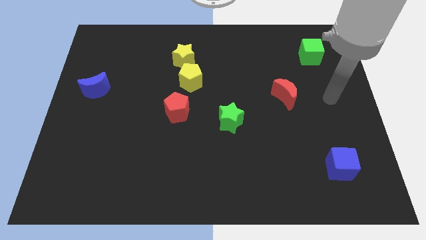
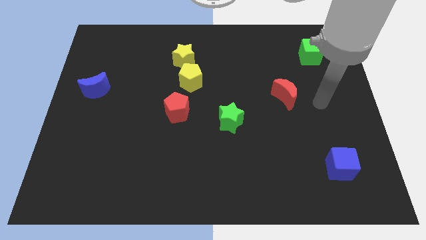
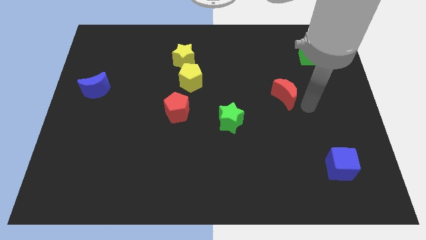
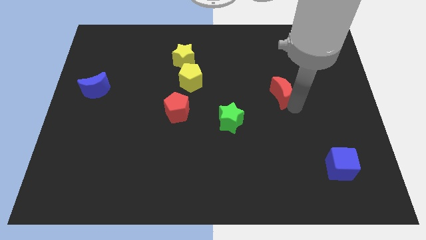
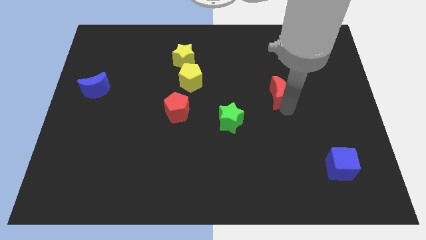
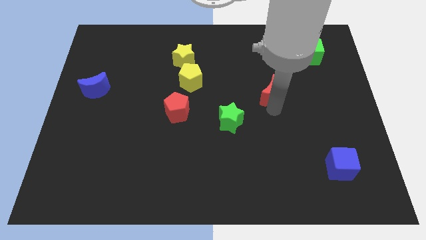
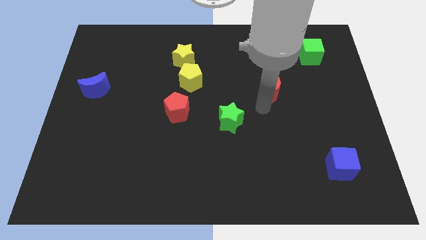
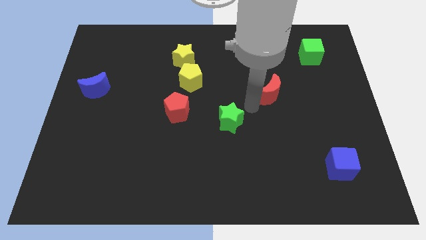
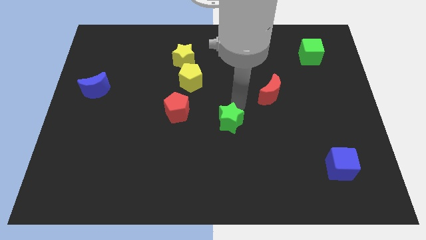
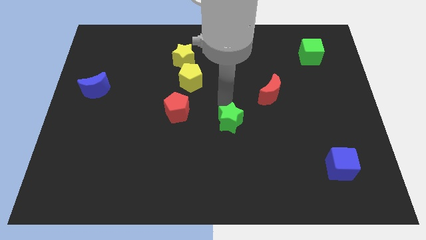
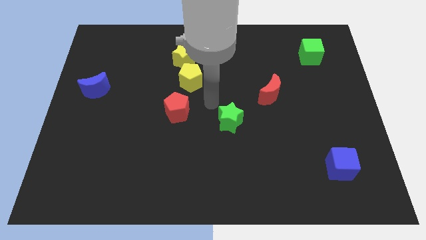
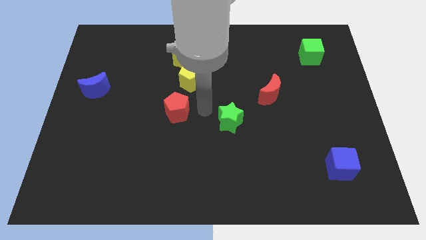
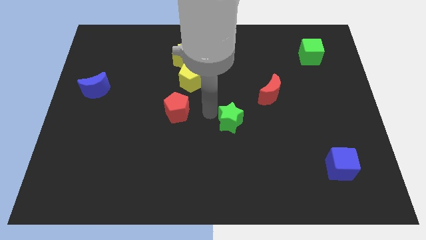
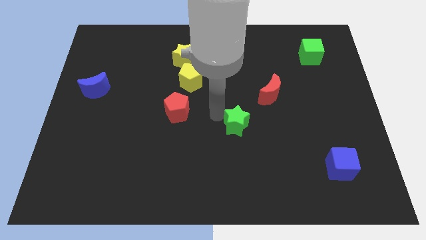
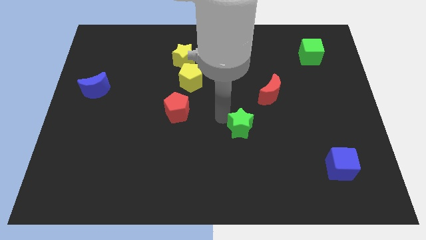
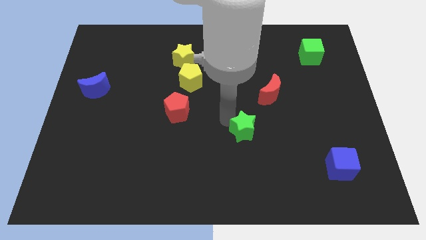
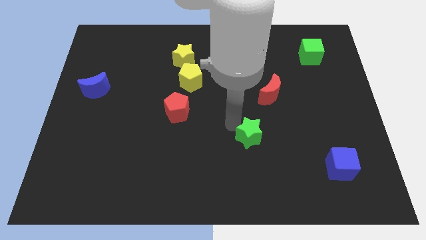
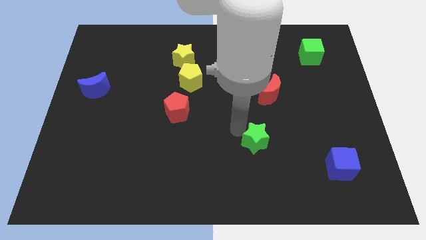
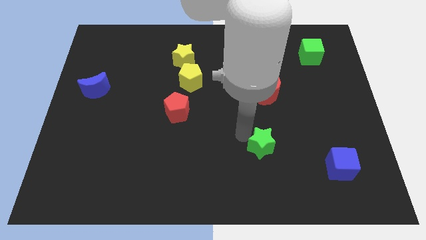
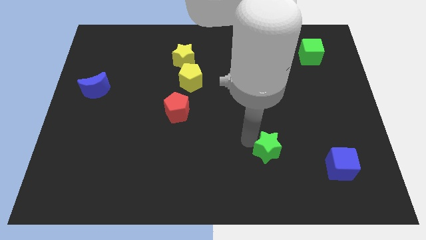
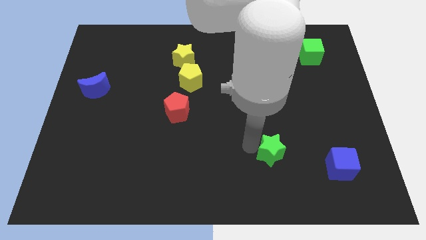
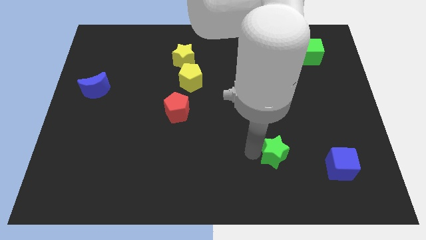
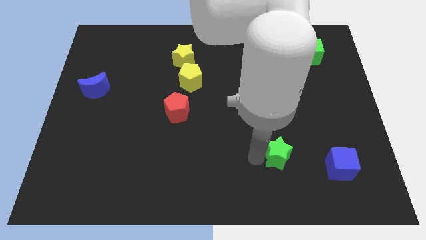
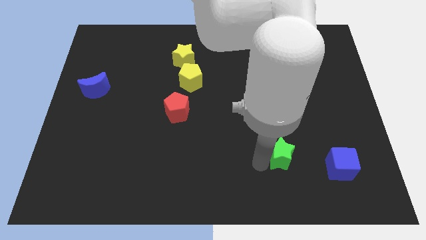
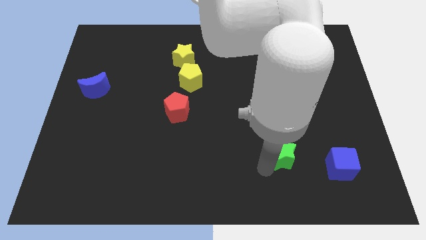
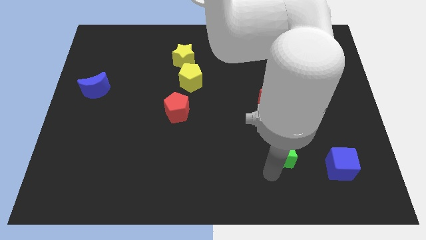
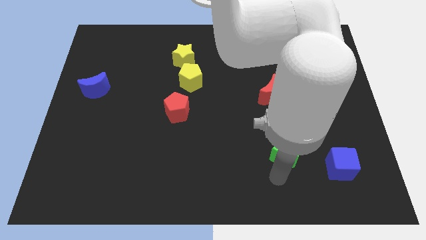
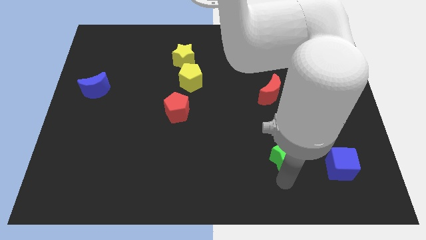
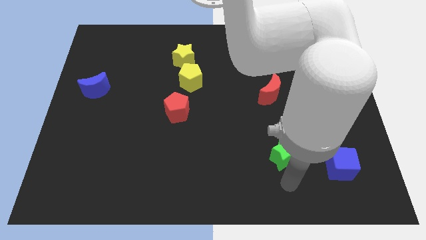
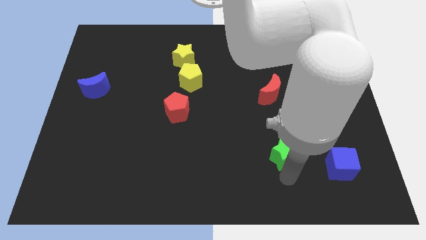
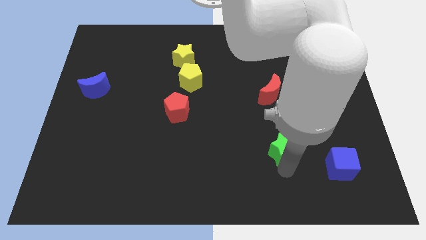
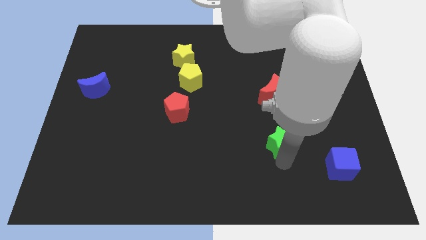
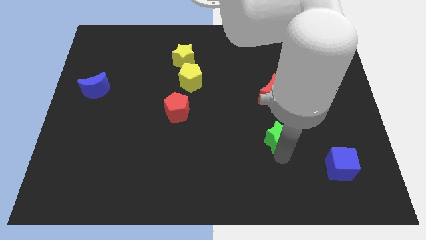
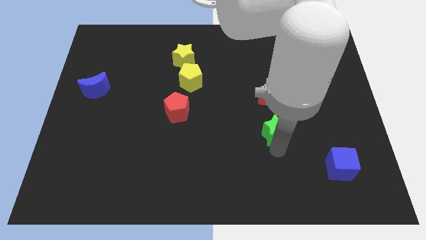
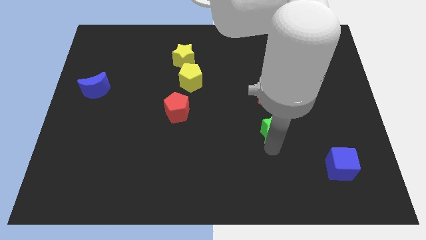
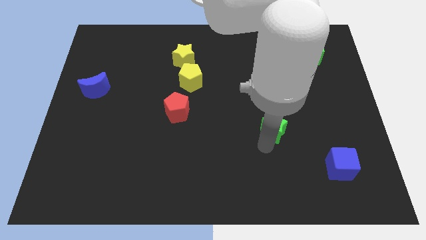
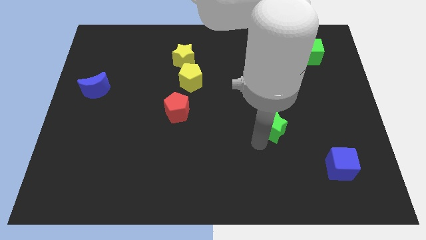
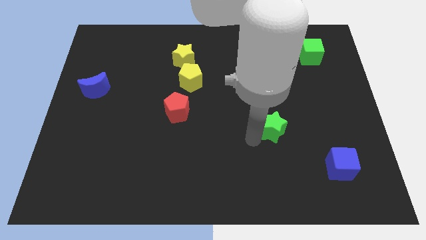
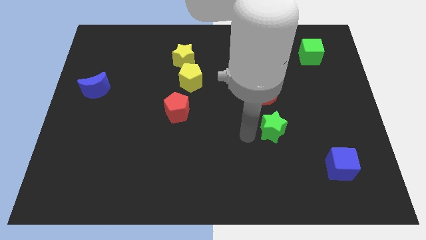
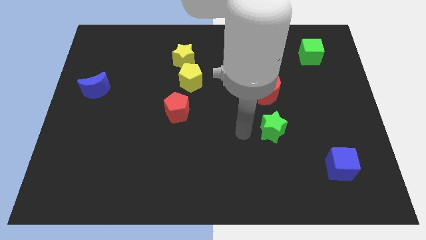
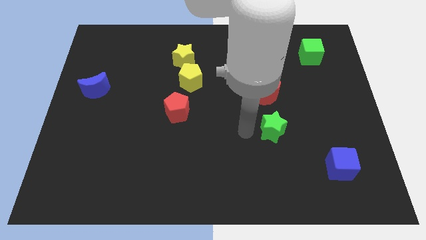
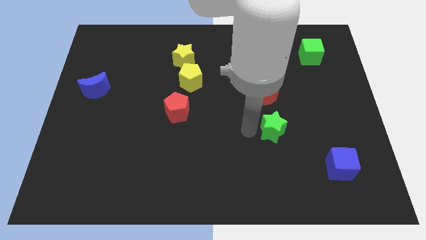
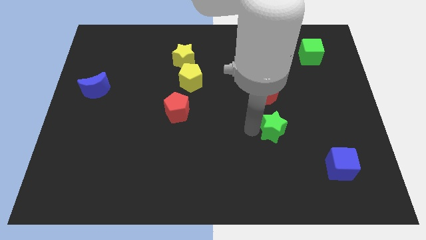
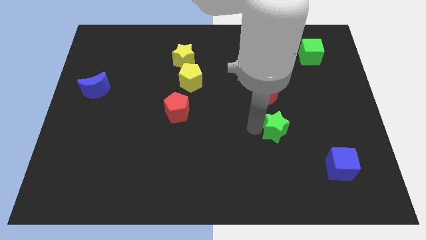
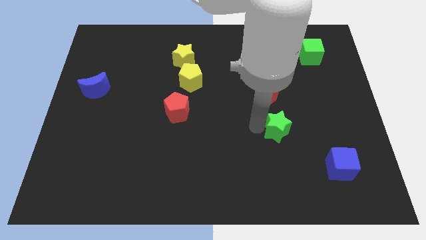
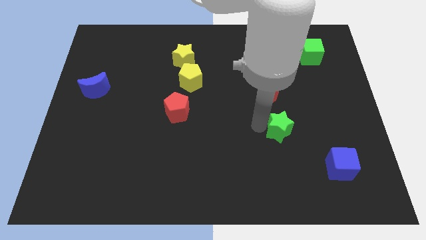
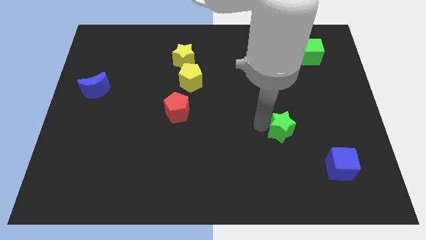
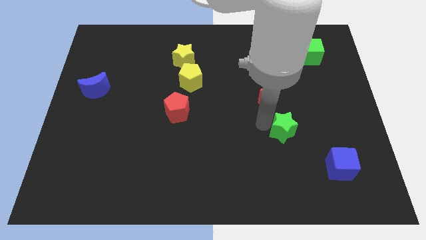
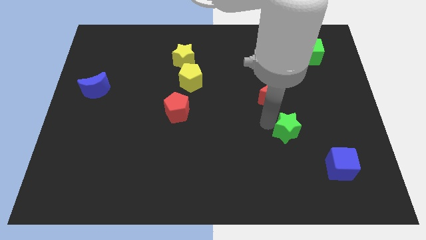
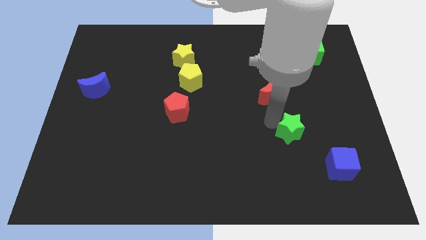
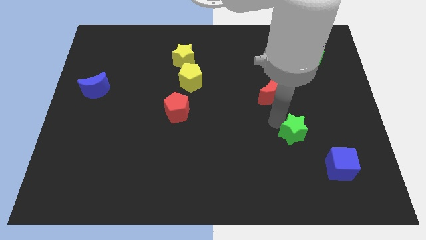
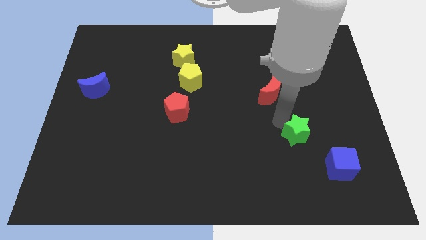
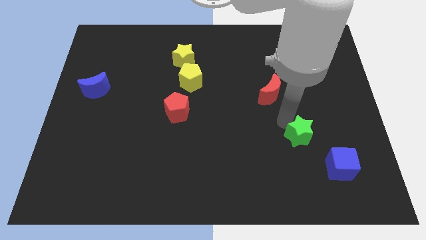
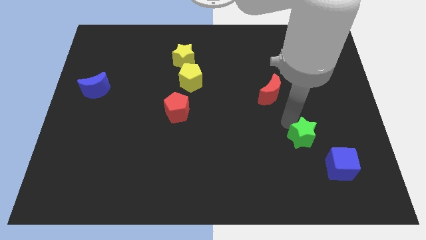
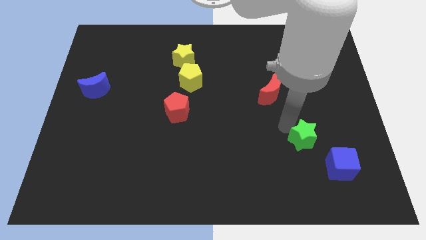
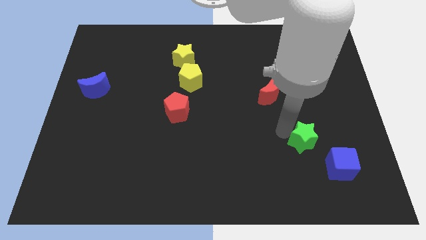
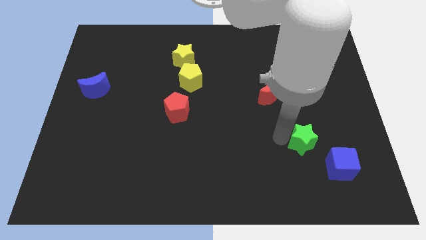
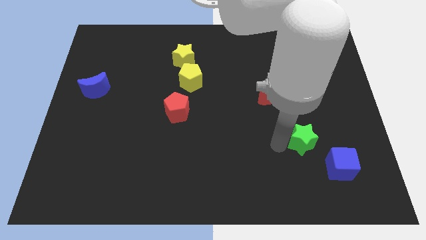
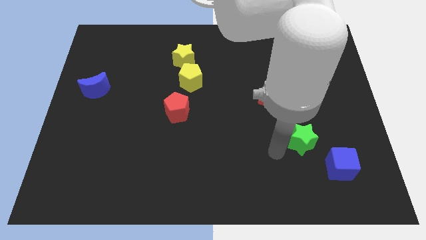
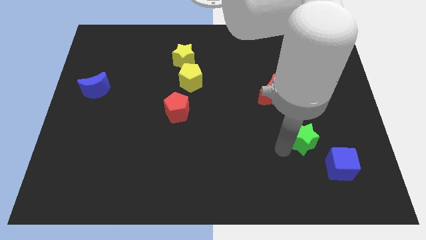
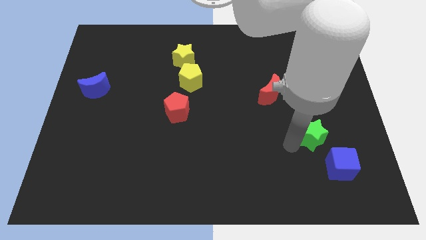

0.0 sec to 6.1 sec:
move the green star to the top of the blue cube
